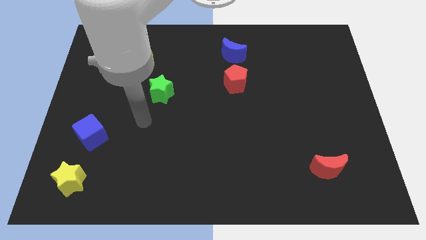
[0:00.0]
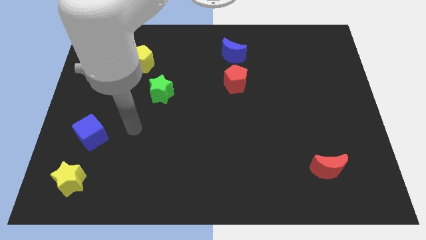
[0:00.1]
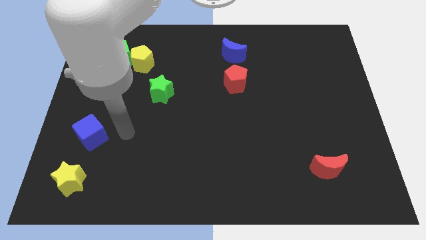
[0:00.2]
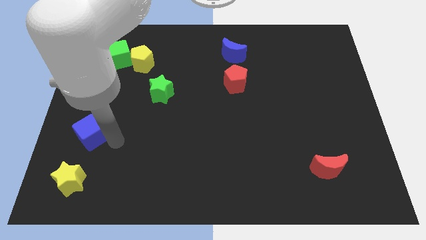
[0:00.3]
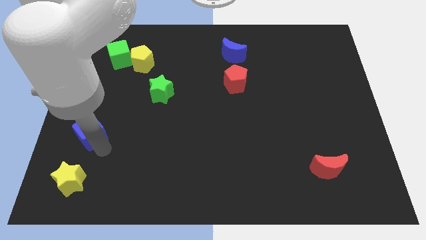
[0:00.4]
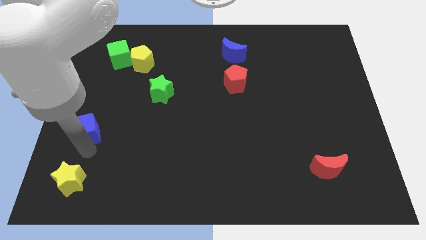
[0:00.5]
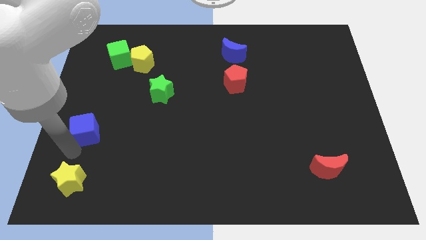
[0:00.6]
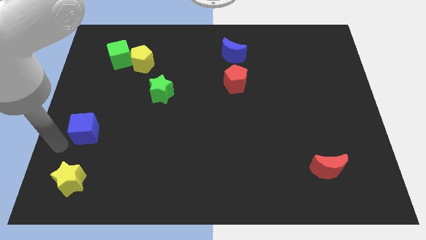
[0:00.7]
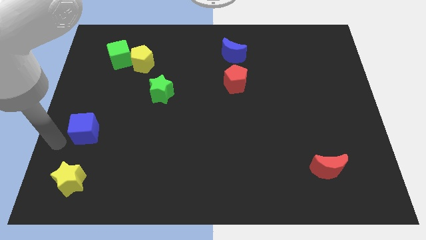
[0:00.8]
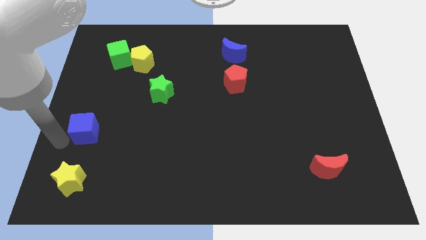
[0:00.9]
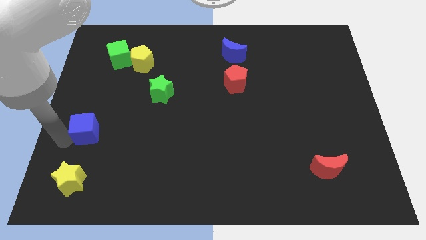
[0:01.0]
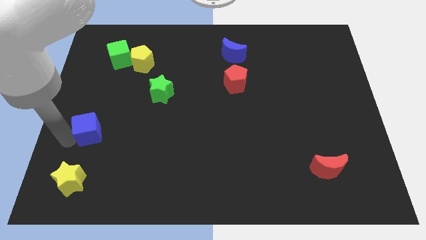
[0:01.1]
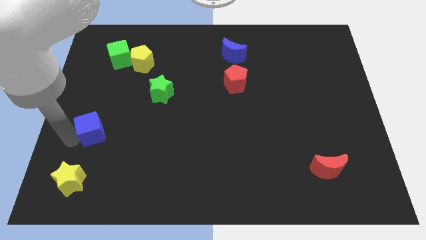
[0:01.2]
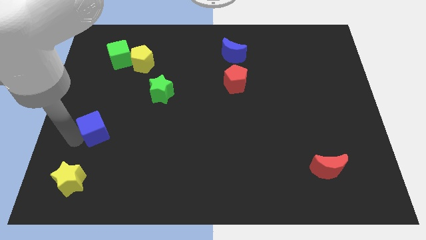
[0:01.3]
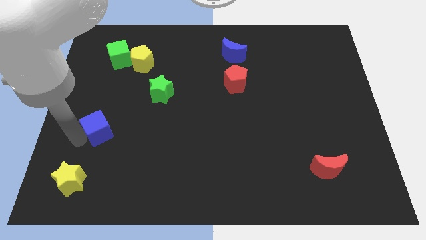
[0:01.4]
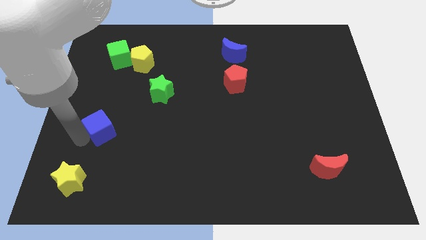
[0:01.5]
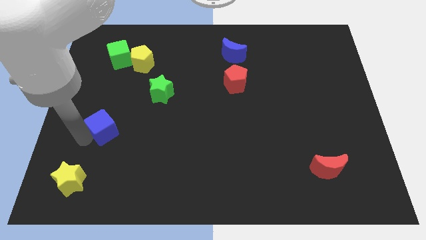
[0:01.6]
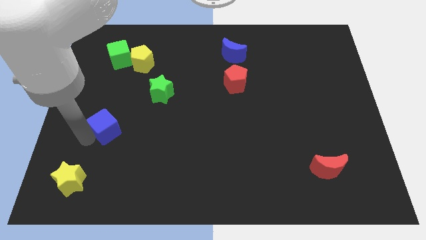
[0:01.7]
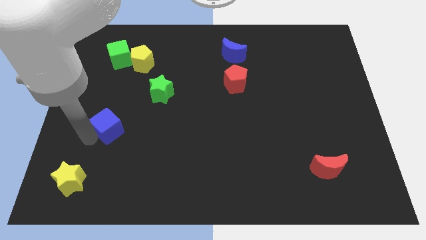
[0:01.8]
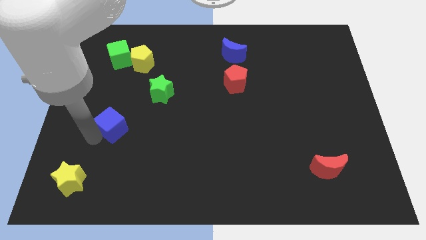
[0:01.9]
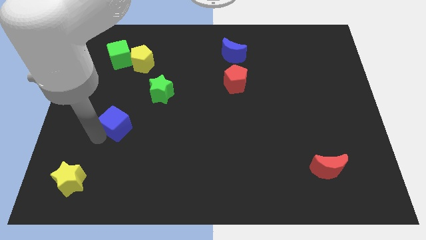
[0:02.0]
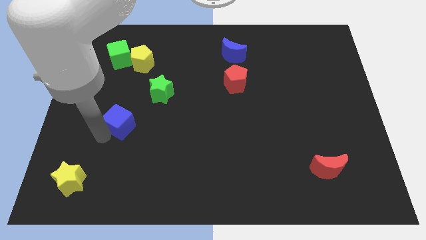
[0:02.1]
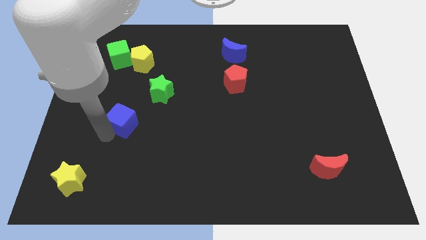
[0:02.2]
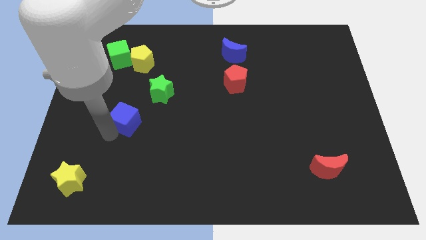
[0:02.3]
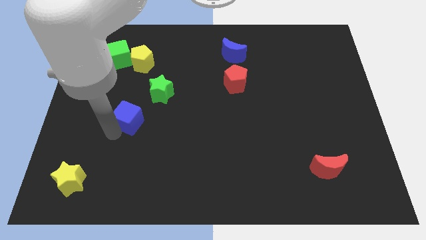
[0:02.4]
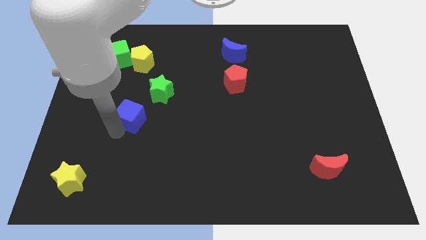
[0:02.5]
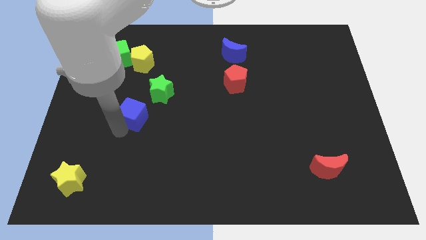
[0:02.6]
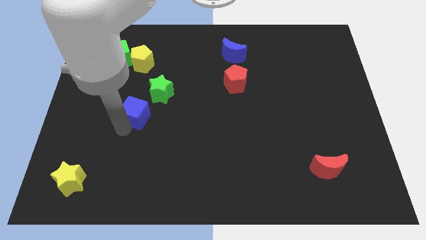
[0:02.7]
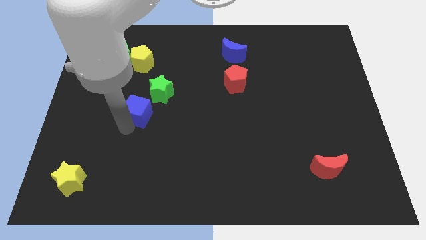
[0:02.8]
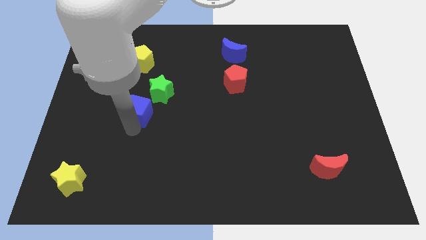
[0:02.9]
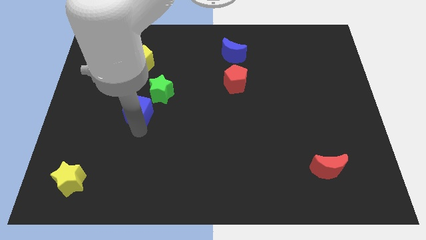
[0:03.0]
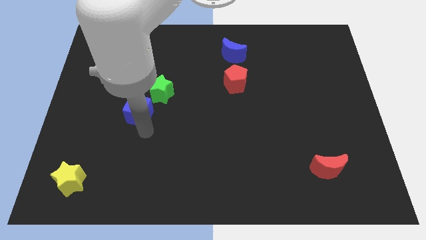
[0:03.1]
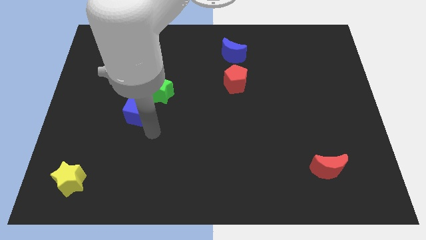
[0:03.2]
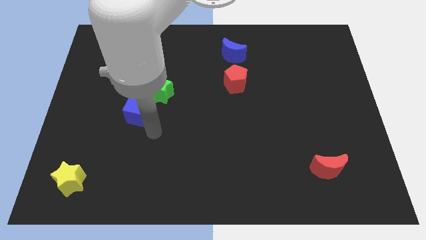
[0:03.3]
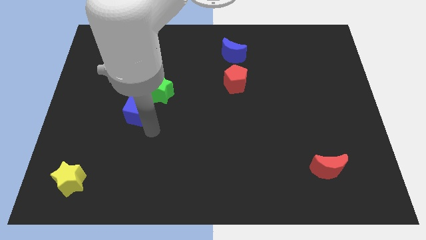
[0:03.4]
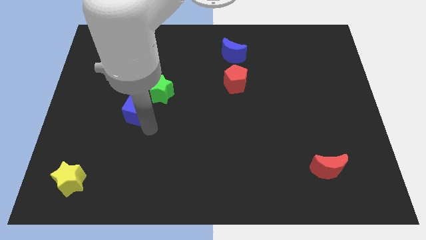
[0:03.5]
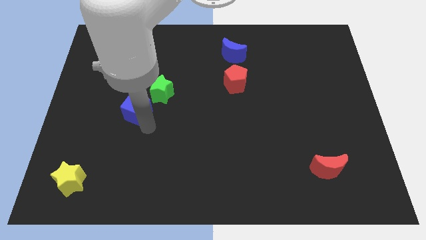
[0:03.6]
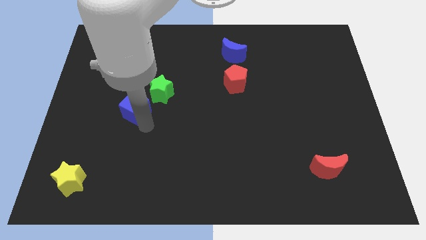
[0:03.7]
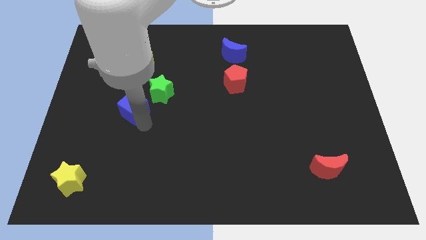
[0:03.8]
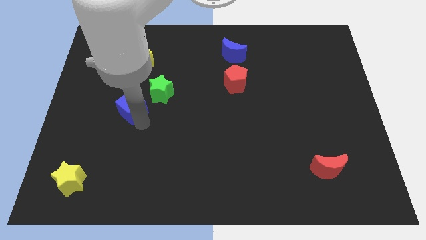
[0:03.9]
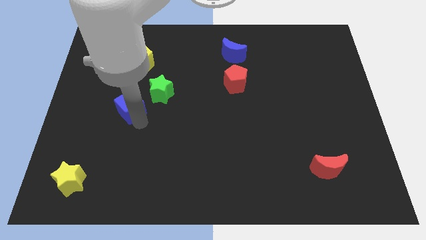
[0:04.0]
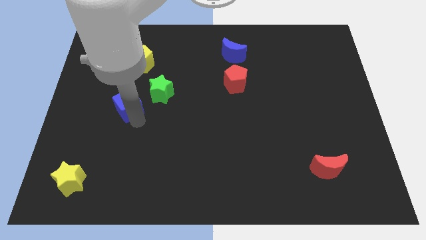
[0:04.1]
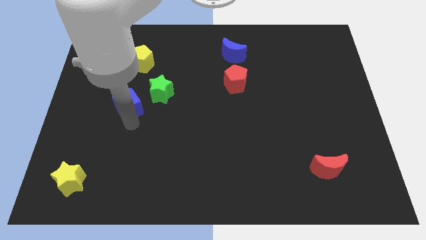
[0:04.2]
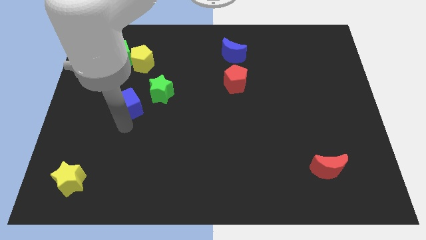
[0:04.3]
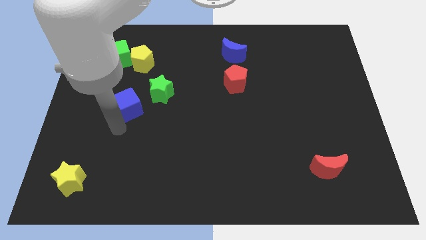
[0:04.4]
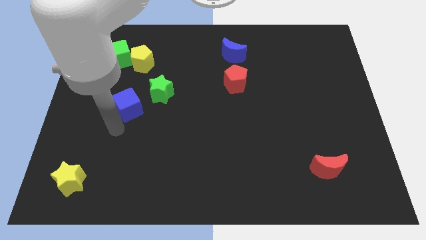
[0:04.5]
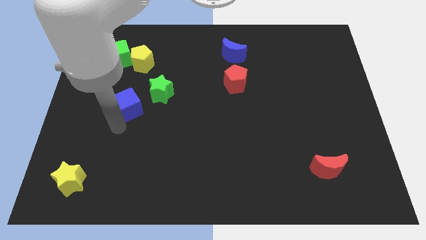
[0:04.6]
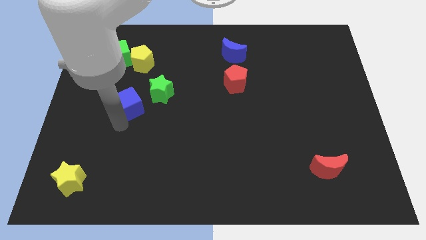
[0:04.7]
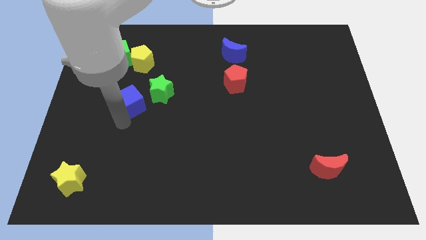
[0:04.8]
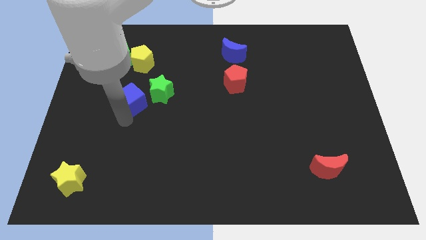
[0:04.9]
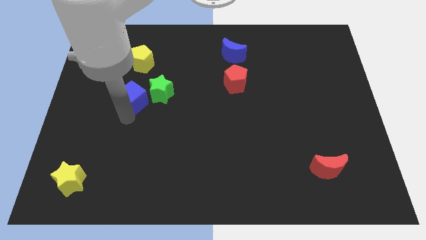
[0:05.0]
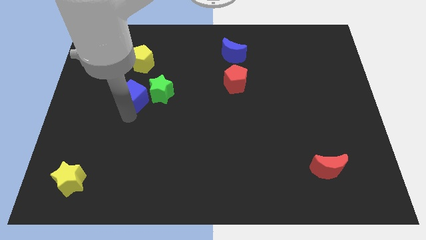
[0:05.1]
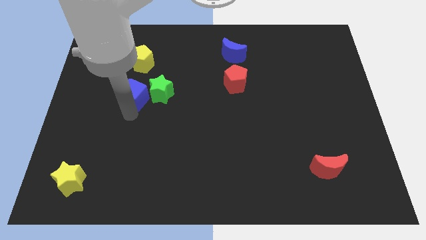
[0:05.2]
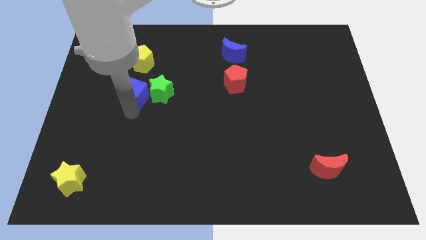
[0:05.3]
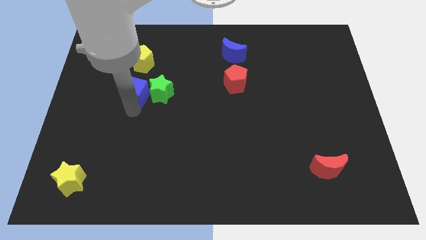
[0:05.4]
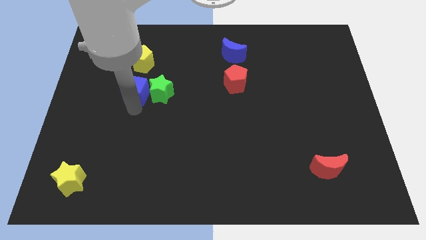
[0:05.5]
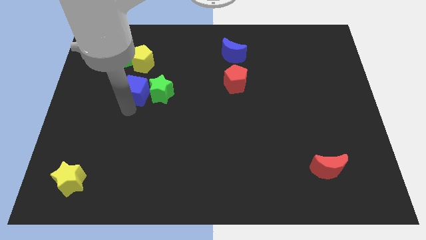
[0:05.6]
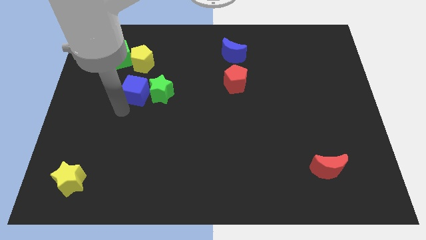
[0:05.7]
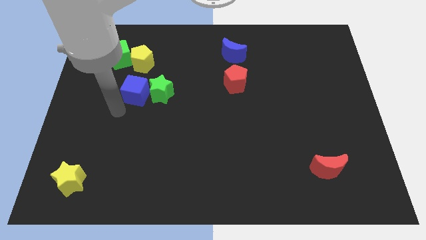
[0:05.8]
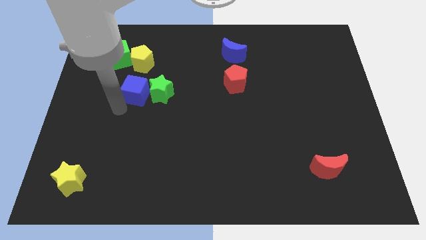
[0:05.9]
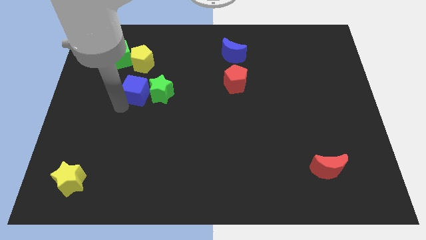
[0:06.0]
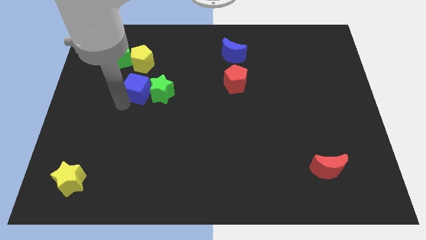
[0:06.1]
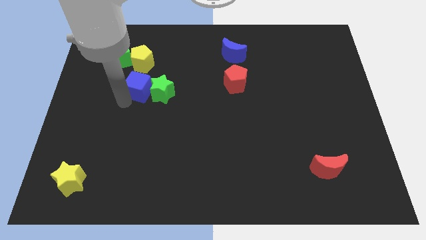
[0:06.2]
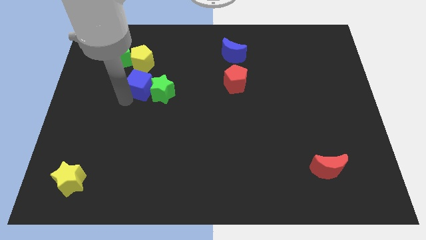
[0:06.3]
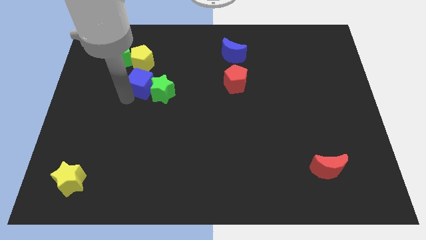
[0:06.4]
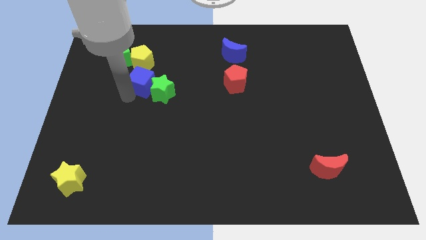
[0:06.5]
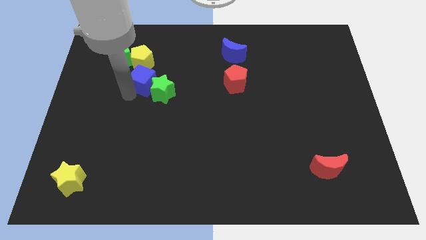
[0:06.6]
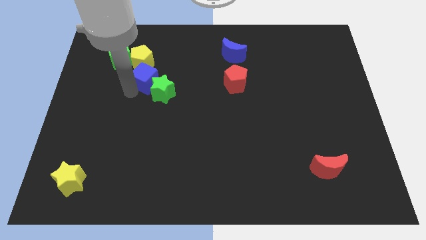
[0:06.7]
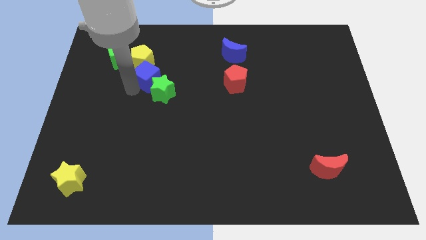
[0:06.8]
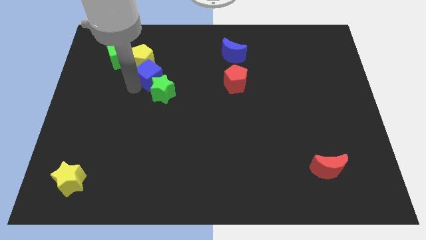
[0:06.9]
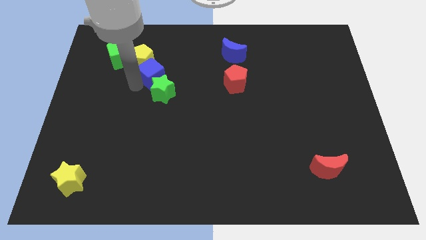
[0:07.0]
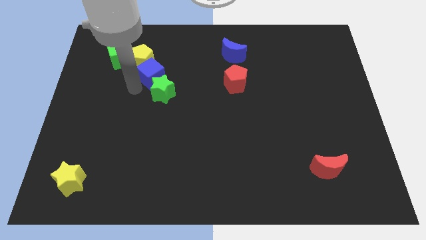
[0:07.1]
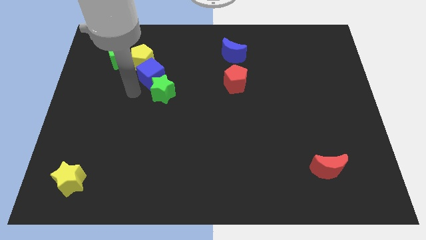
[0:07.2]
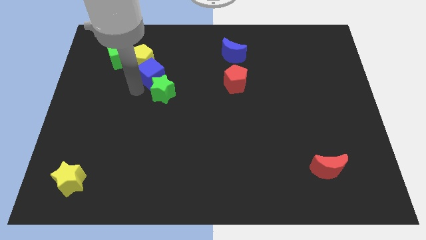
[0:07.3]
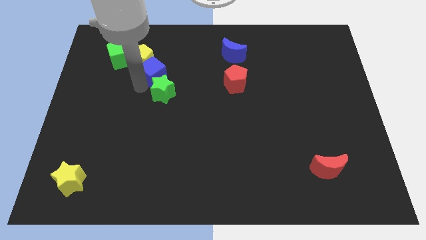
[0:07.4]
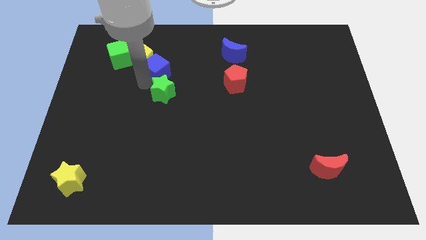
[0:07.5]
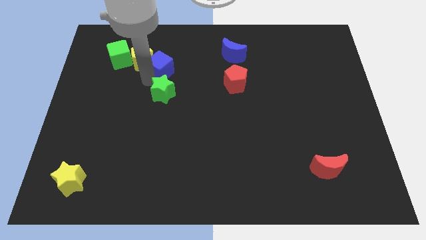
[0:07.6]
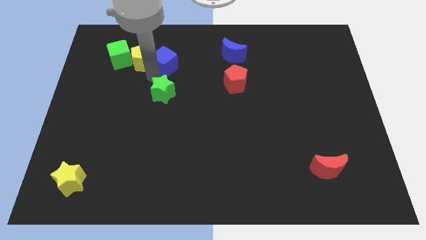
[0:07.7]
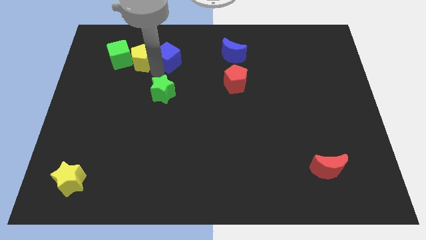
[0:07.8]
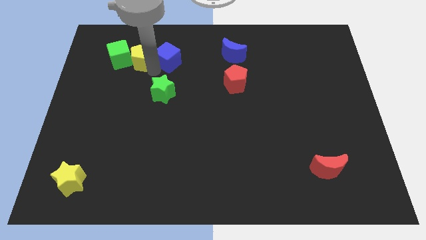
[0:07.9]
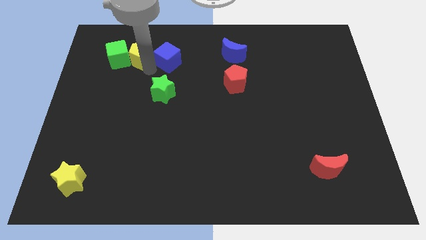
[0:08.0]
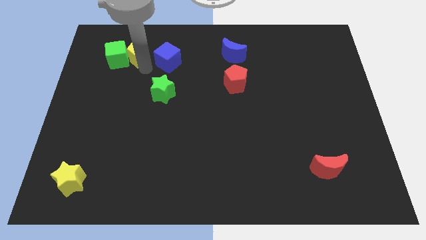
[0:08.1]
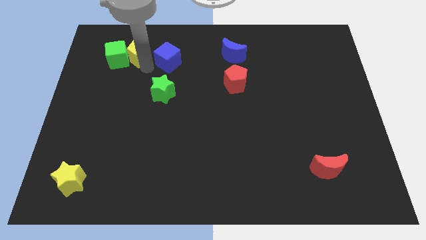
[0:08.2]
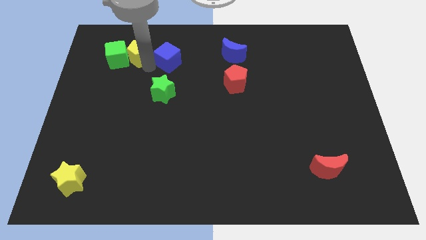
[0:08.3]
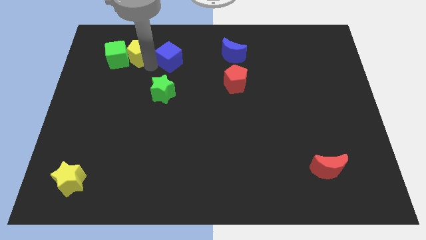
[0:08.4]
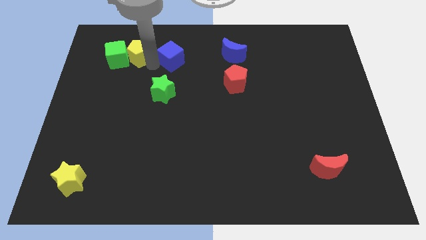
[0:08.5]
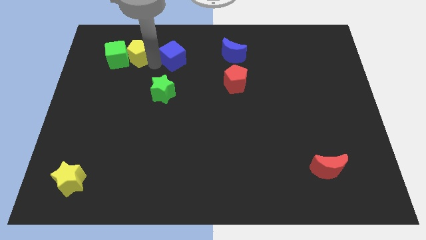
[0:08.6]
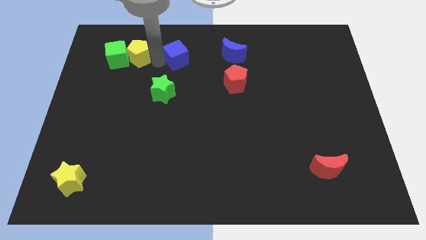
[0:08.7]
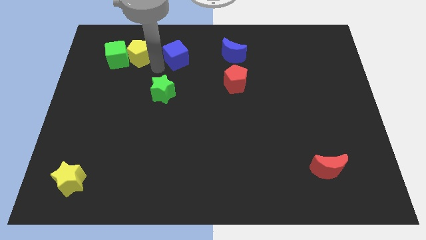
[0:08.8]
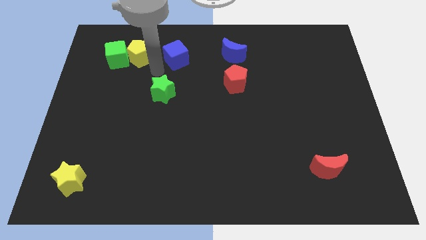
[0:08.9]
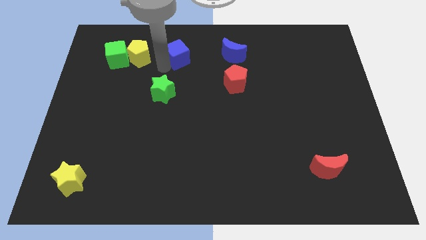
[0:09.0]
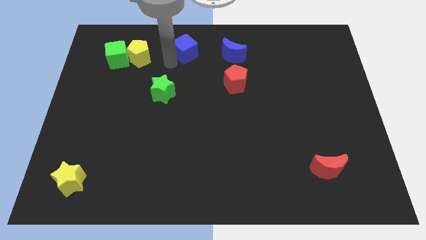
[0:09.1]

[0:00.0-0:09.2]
slide the blue cube to the towards your base
